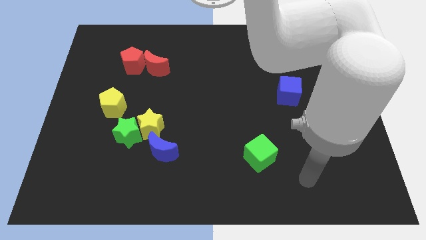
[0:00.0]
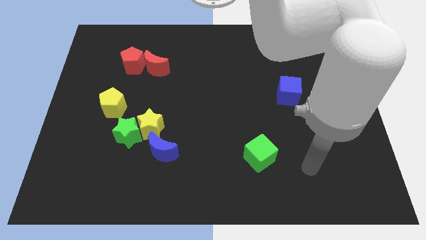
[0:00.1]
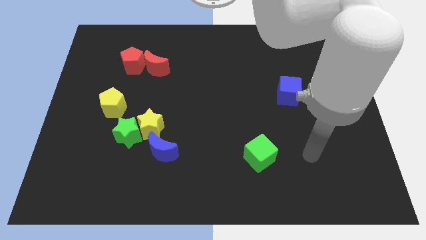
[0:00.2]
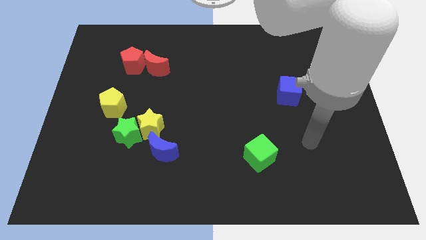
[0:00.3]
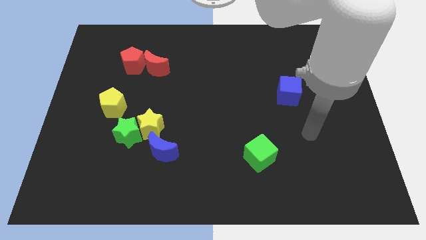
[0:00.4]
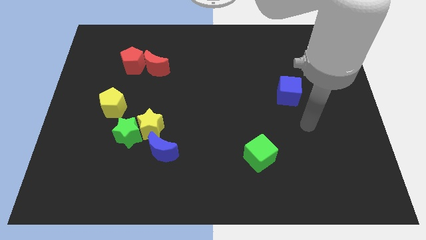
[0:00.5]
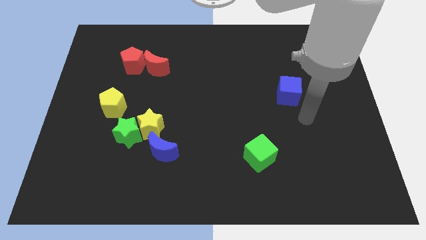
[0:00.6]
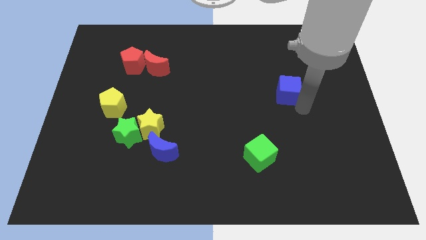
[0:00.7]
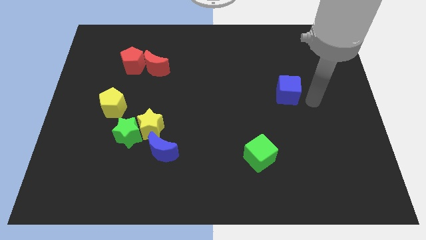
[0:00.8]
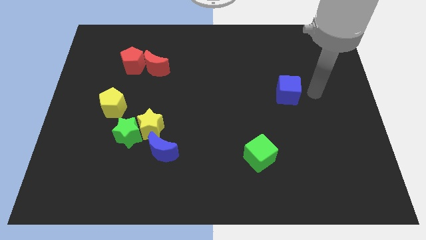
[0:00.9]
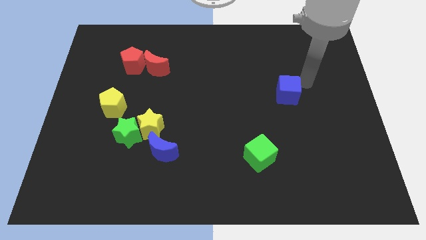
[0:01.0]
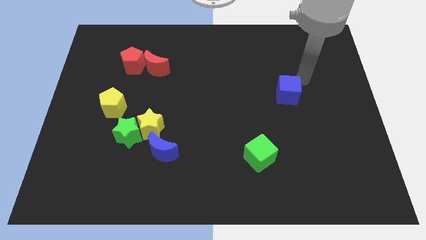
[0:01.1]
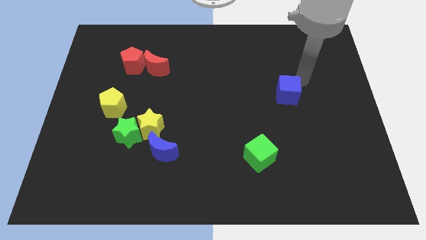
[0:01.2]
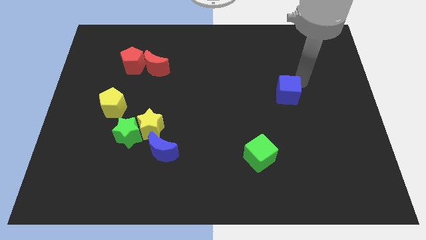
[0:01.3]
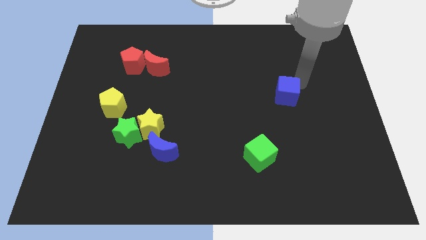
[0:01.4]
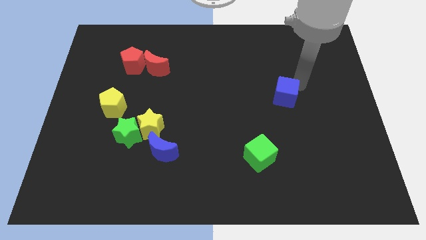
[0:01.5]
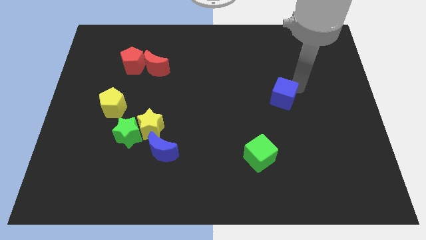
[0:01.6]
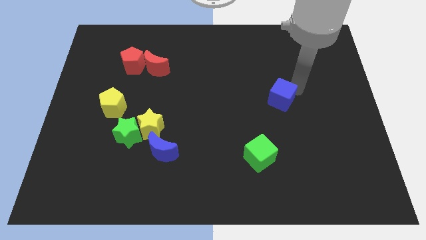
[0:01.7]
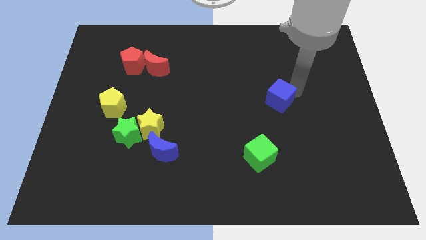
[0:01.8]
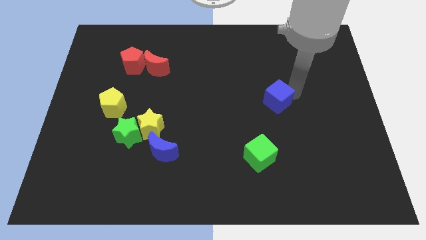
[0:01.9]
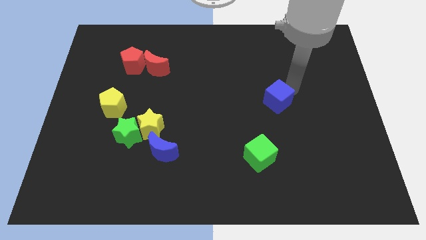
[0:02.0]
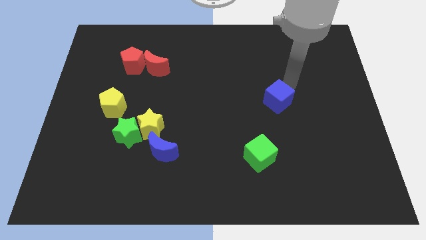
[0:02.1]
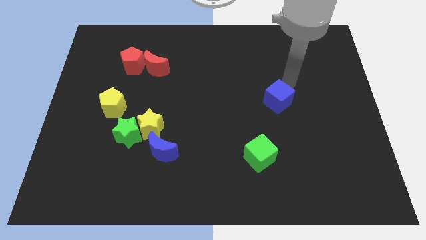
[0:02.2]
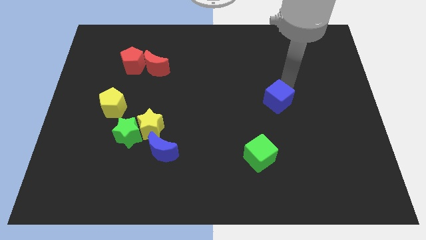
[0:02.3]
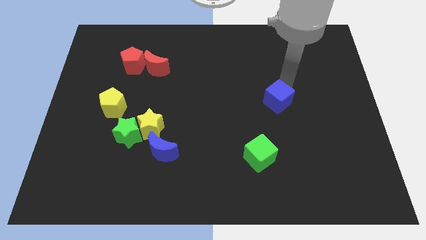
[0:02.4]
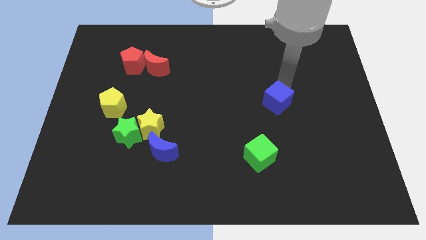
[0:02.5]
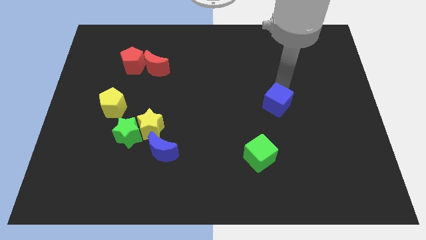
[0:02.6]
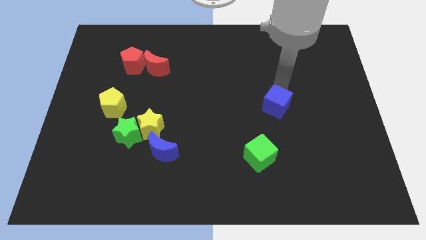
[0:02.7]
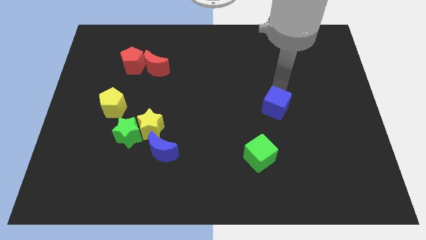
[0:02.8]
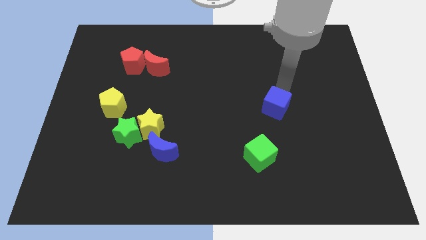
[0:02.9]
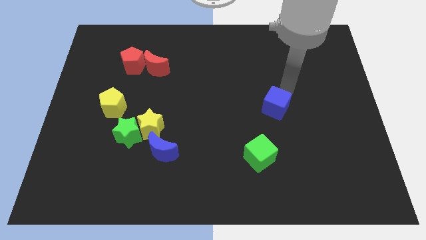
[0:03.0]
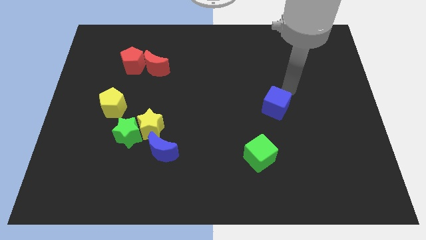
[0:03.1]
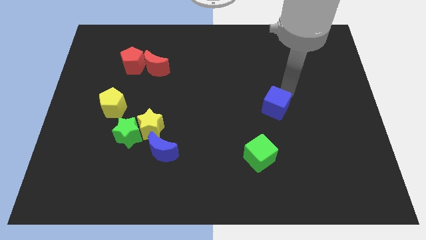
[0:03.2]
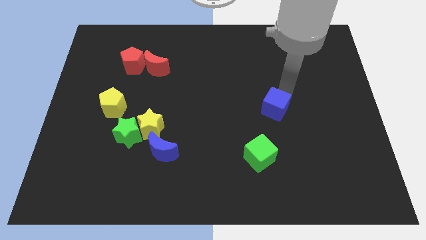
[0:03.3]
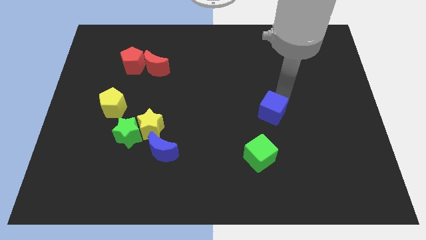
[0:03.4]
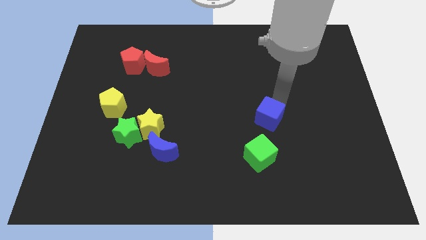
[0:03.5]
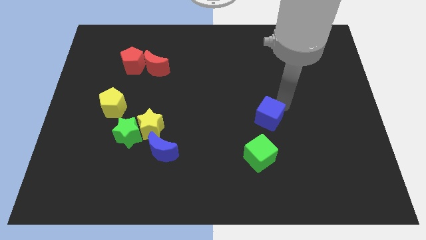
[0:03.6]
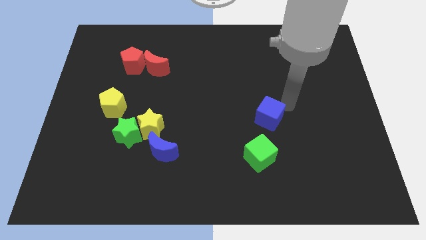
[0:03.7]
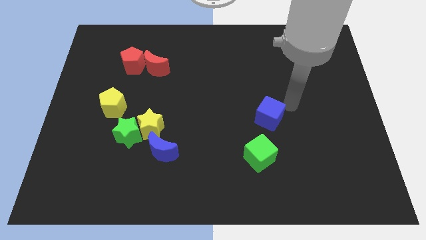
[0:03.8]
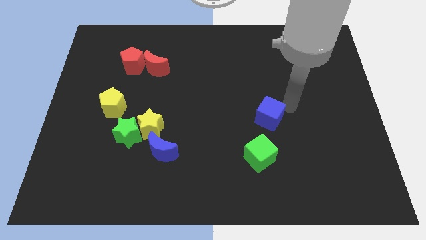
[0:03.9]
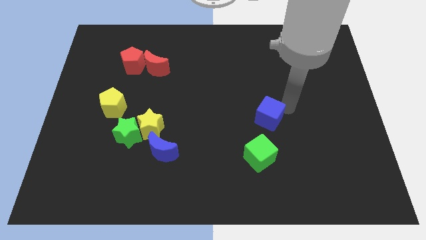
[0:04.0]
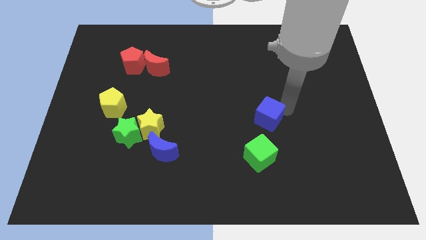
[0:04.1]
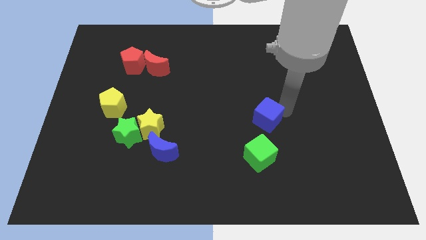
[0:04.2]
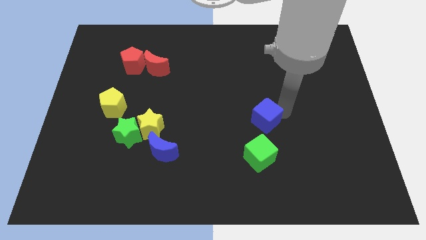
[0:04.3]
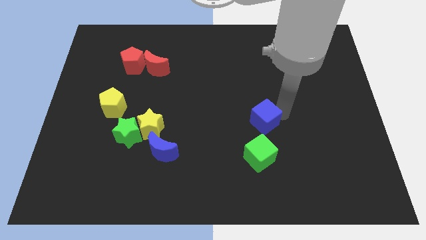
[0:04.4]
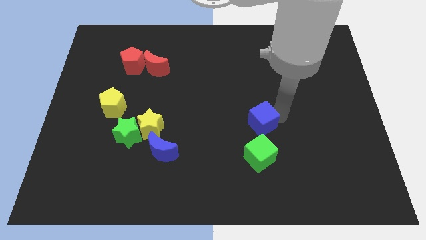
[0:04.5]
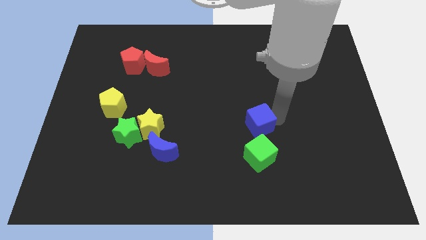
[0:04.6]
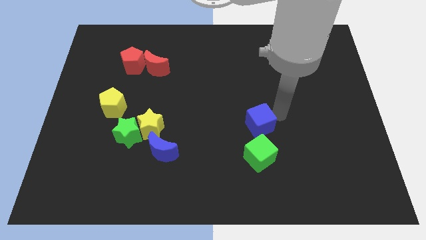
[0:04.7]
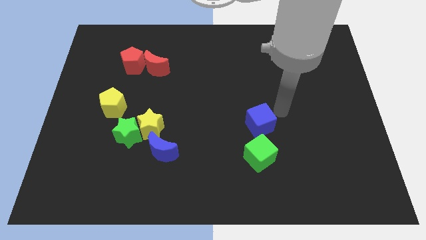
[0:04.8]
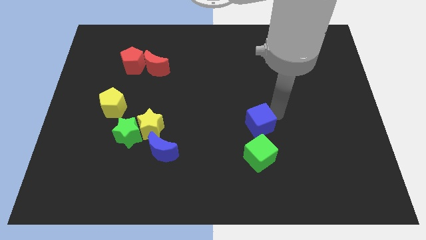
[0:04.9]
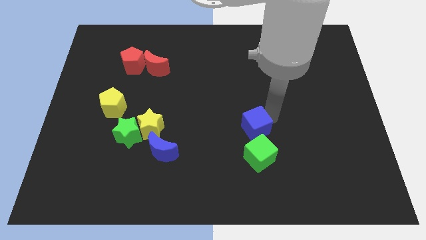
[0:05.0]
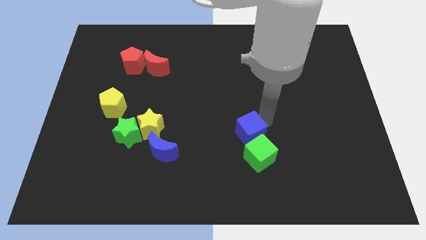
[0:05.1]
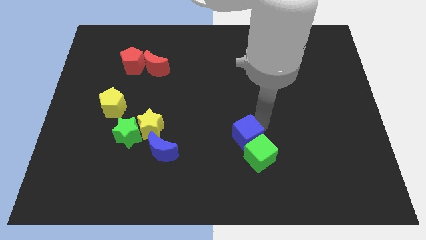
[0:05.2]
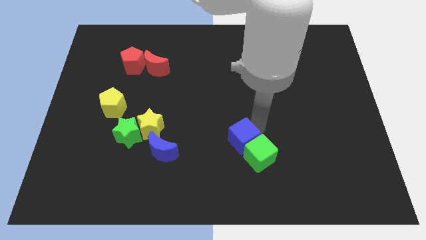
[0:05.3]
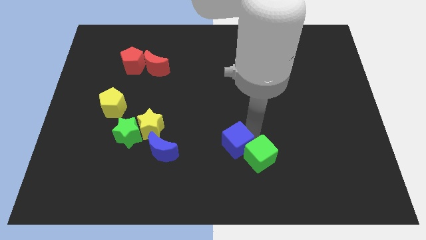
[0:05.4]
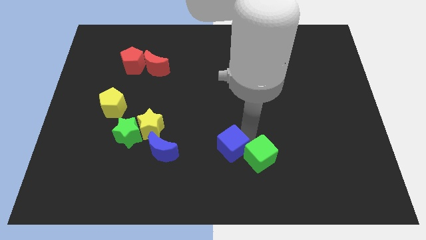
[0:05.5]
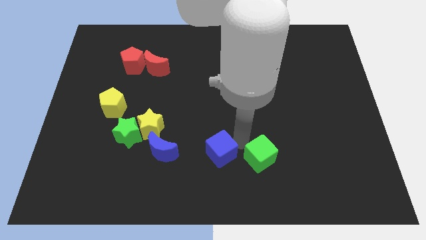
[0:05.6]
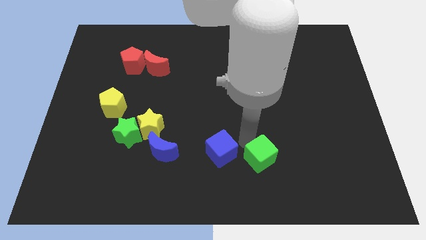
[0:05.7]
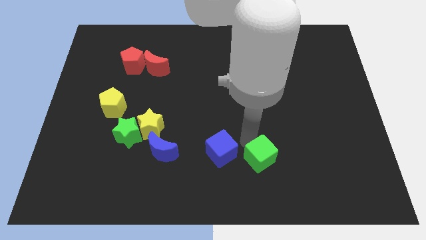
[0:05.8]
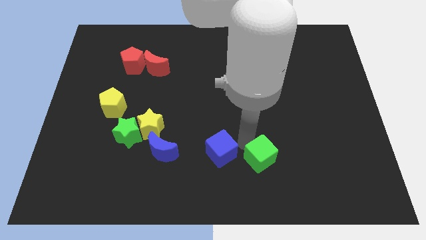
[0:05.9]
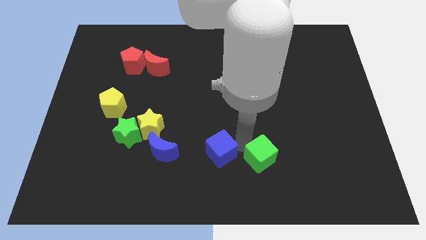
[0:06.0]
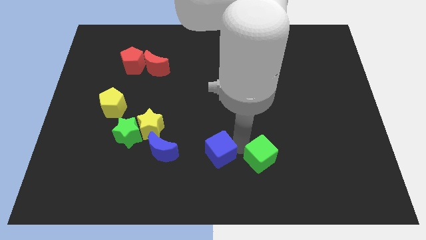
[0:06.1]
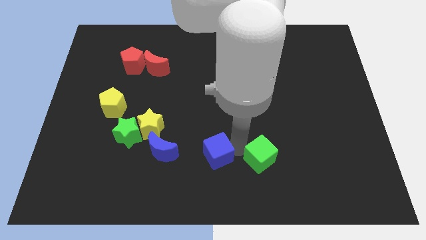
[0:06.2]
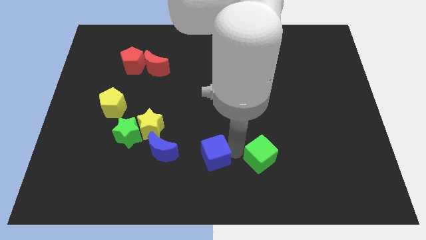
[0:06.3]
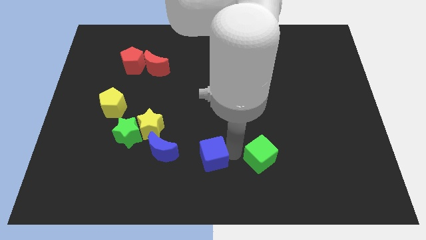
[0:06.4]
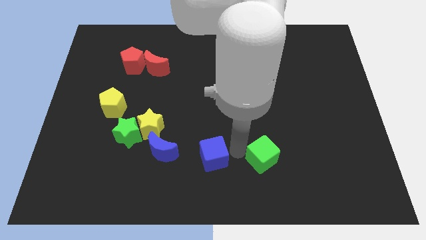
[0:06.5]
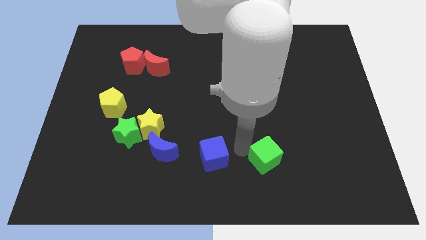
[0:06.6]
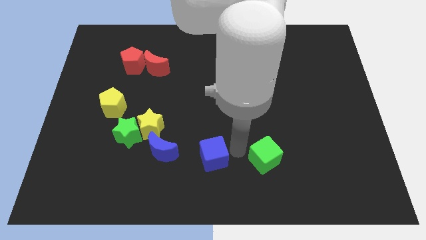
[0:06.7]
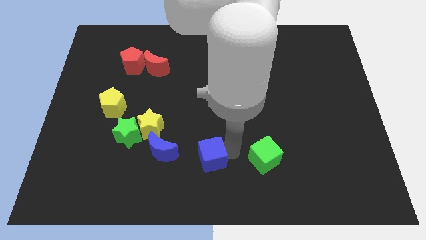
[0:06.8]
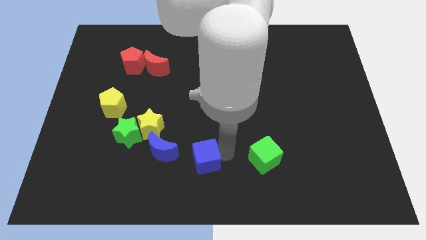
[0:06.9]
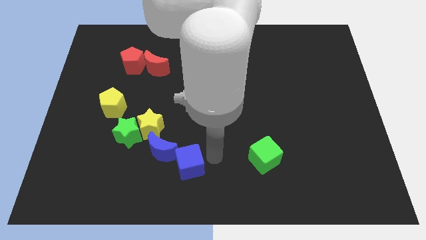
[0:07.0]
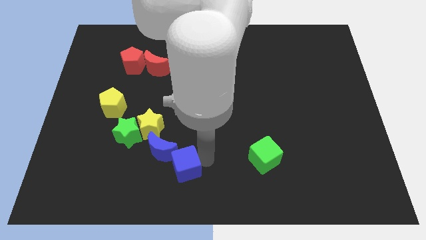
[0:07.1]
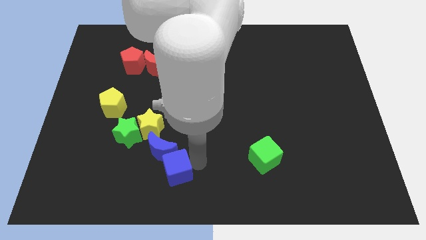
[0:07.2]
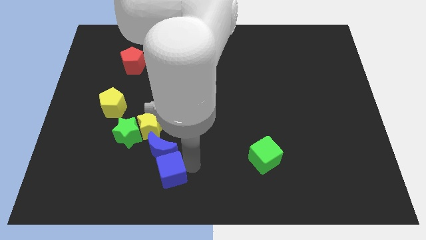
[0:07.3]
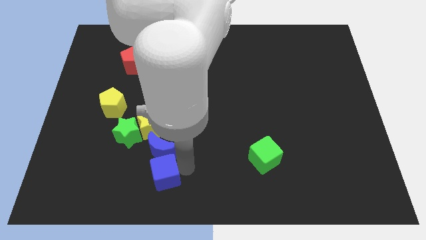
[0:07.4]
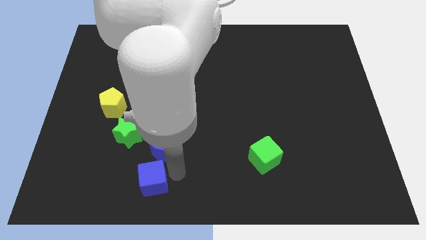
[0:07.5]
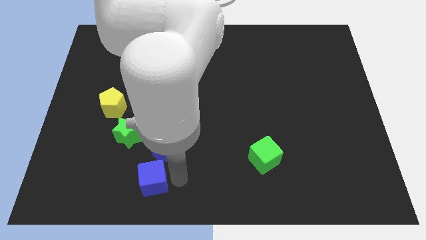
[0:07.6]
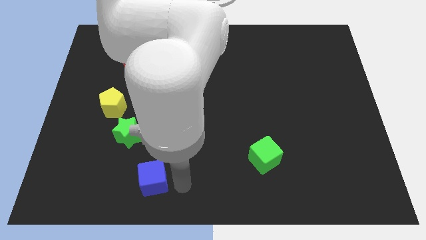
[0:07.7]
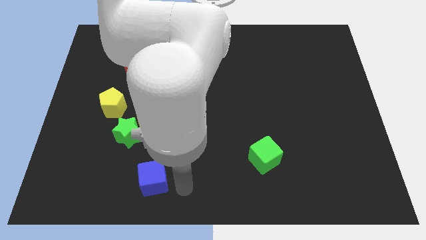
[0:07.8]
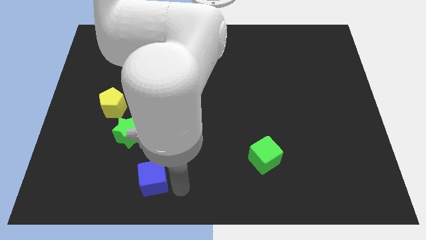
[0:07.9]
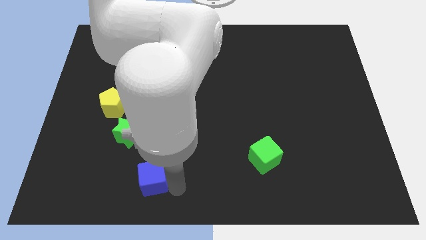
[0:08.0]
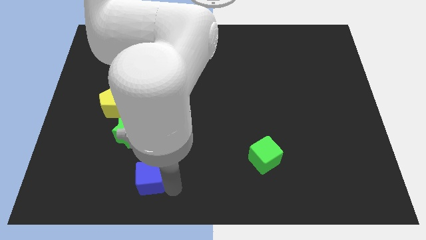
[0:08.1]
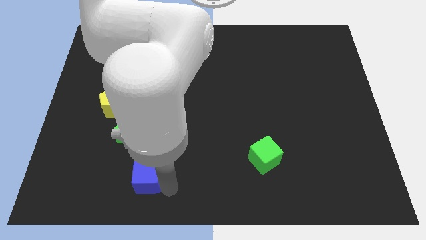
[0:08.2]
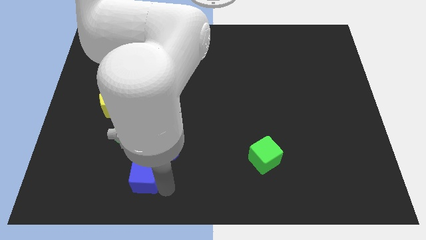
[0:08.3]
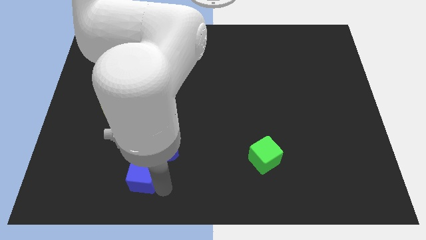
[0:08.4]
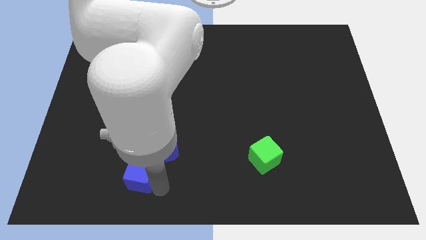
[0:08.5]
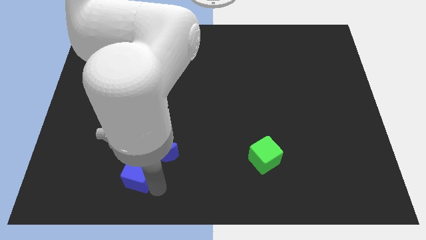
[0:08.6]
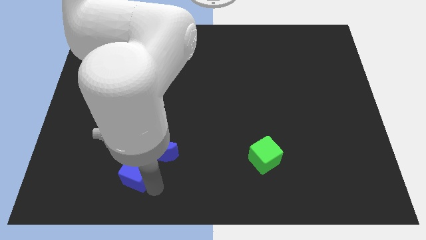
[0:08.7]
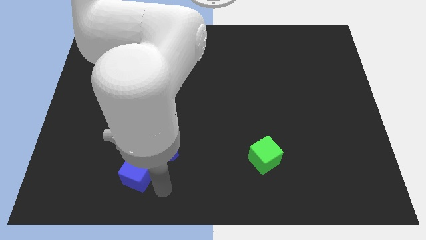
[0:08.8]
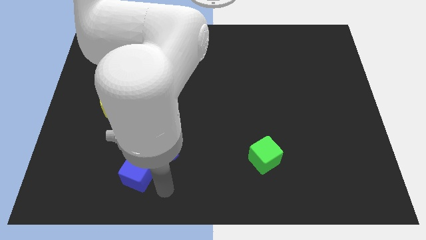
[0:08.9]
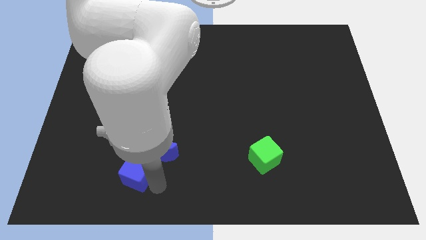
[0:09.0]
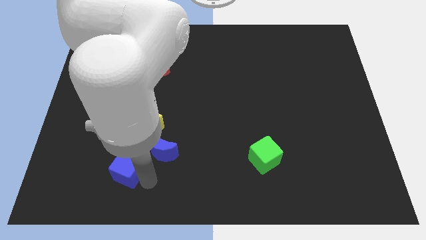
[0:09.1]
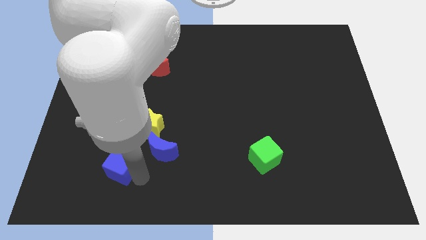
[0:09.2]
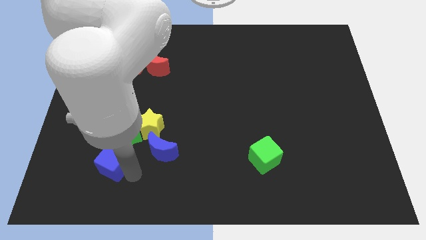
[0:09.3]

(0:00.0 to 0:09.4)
move the blue cube to the bottom left side of the green star
